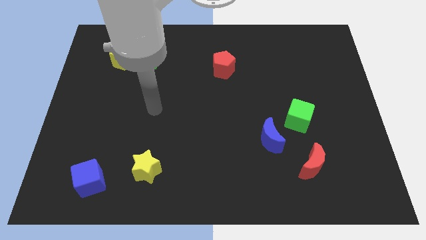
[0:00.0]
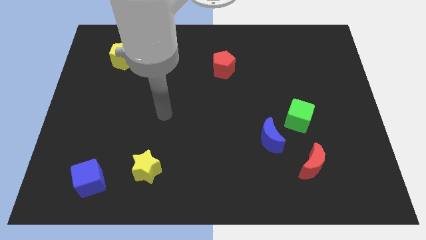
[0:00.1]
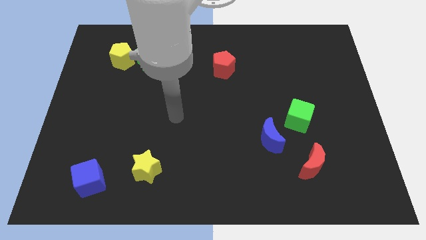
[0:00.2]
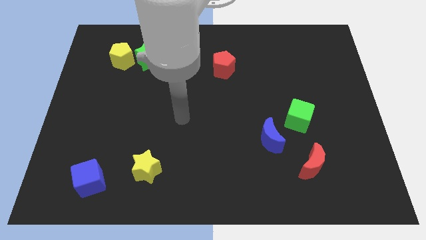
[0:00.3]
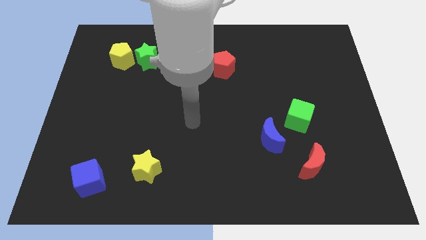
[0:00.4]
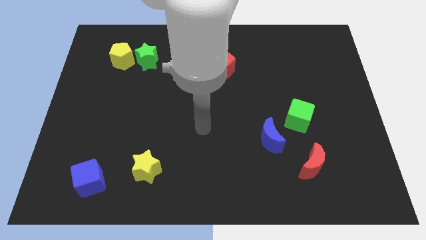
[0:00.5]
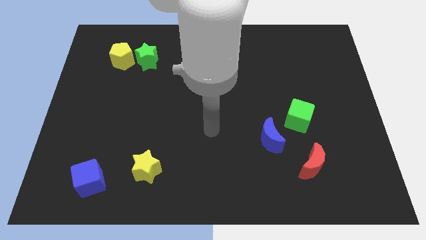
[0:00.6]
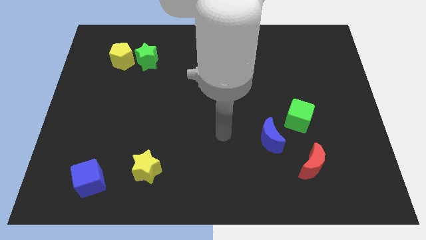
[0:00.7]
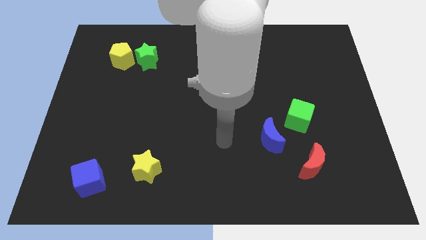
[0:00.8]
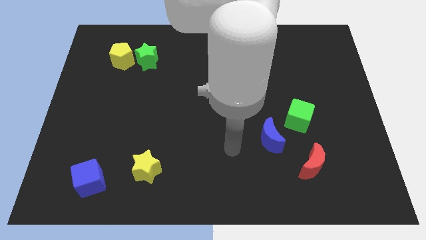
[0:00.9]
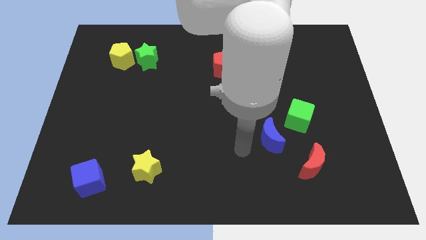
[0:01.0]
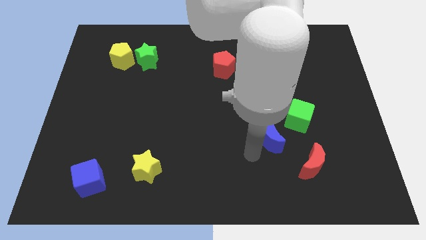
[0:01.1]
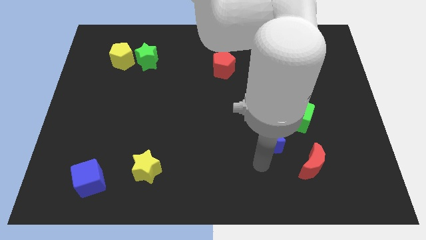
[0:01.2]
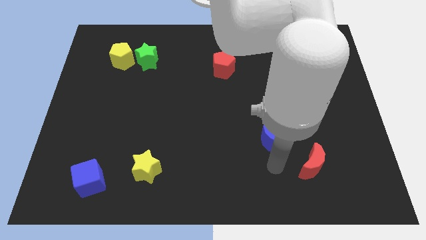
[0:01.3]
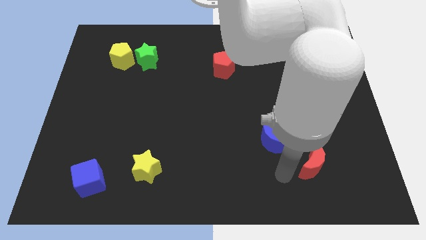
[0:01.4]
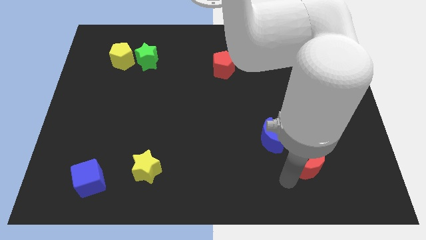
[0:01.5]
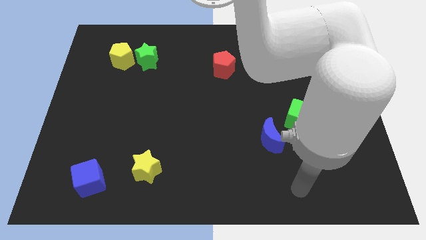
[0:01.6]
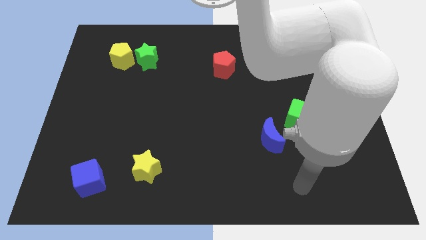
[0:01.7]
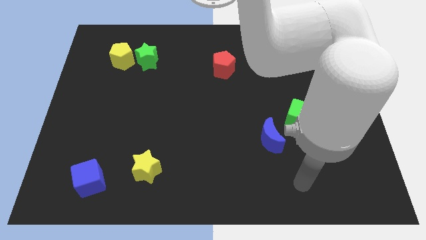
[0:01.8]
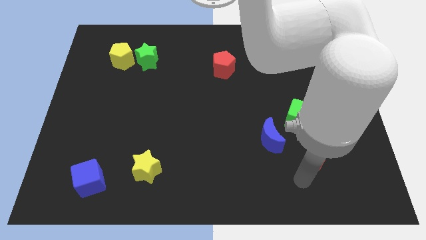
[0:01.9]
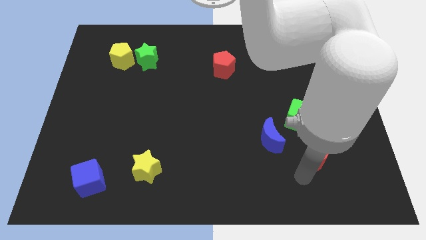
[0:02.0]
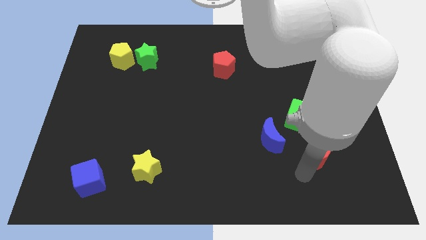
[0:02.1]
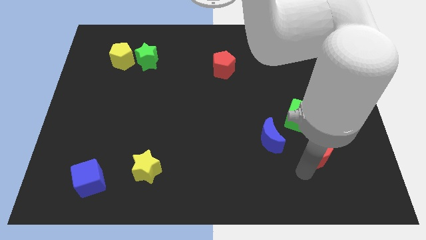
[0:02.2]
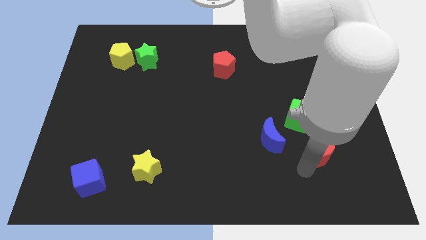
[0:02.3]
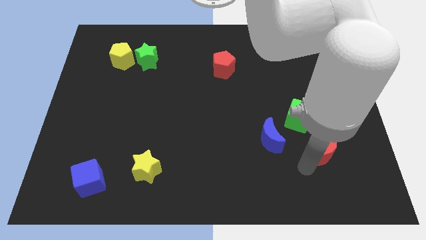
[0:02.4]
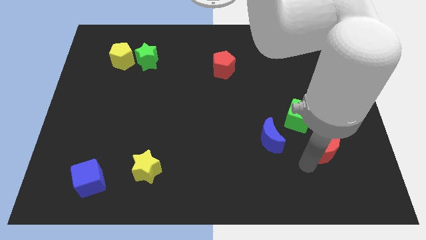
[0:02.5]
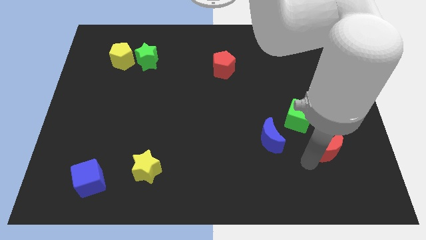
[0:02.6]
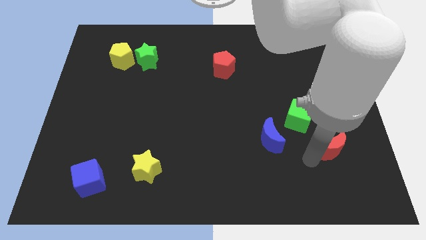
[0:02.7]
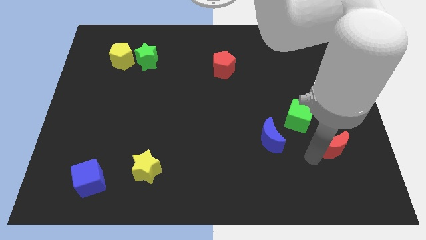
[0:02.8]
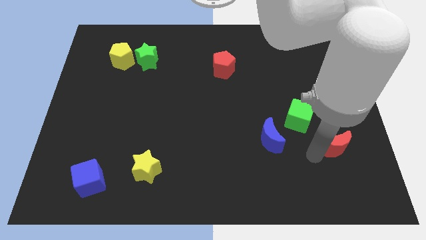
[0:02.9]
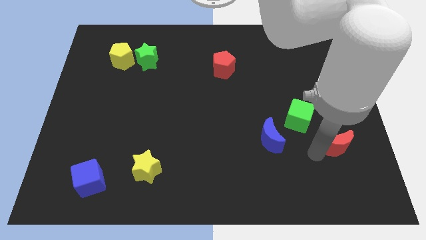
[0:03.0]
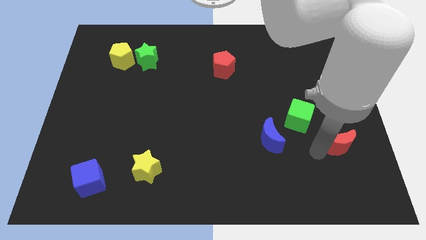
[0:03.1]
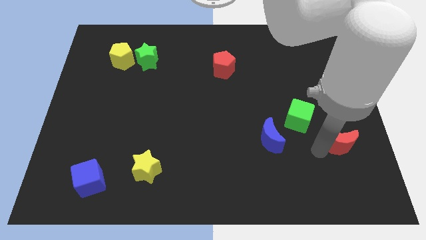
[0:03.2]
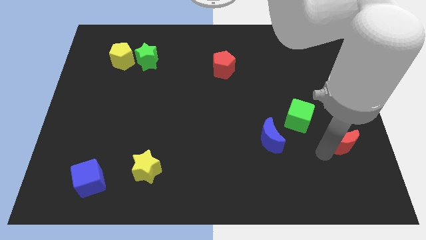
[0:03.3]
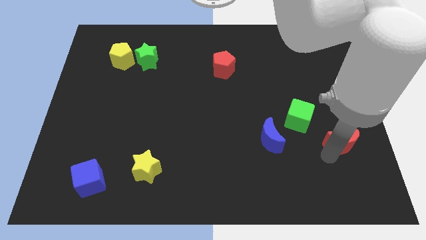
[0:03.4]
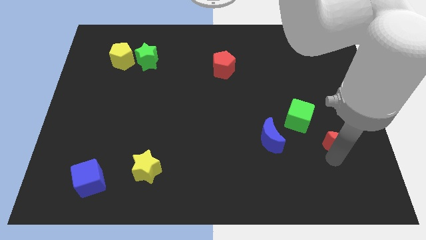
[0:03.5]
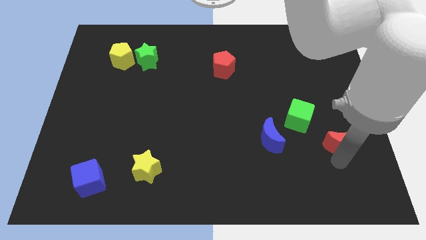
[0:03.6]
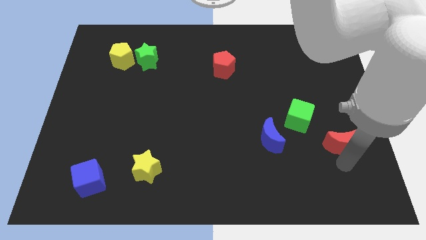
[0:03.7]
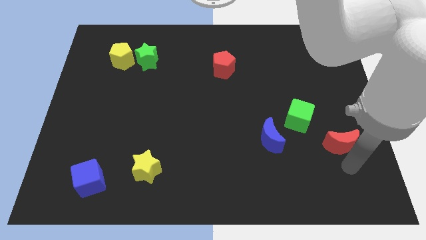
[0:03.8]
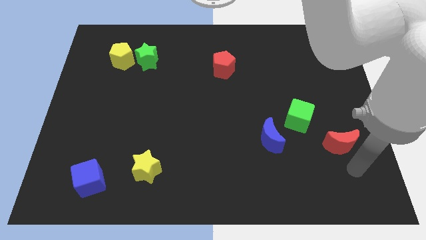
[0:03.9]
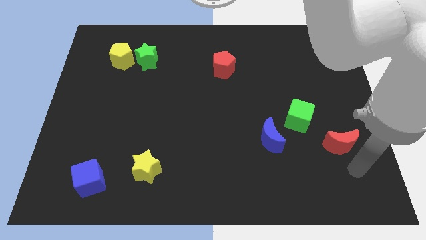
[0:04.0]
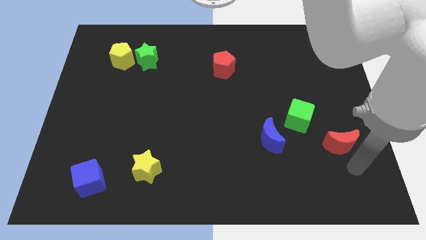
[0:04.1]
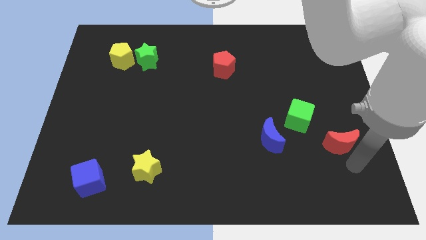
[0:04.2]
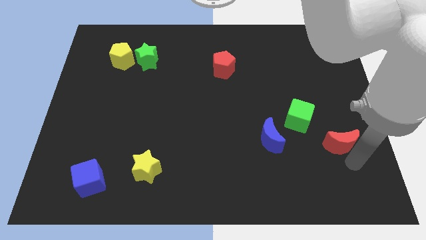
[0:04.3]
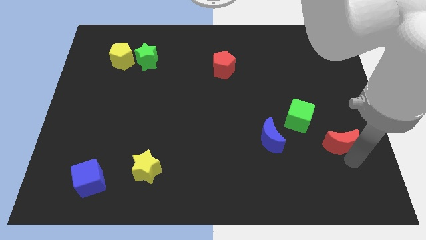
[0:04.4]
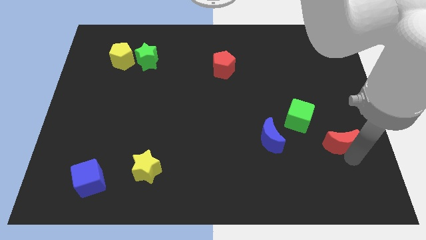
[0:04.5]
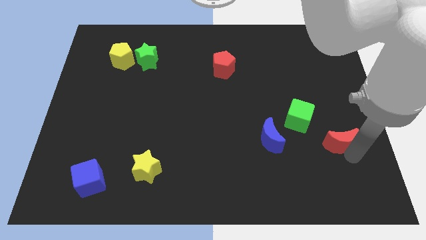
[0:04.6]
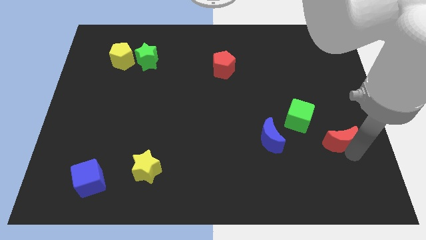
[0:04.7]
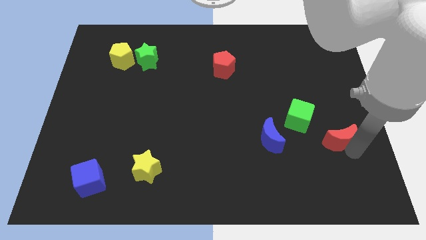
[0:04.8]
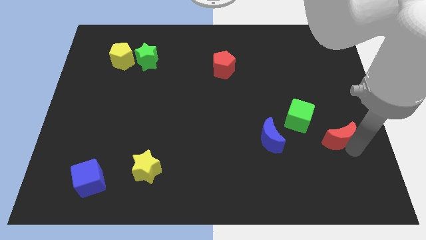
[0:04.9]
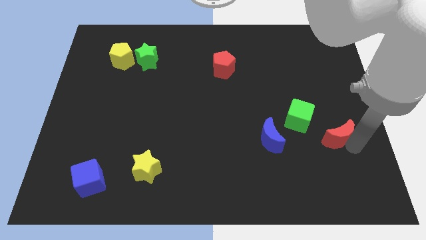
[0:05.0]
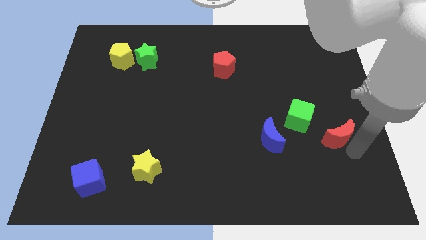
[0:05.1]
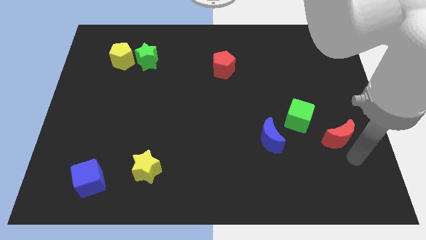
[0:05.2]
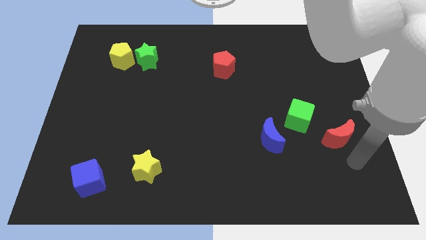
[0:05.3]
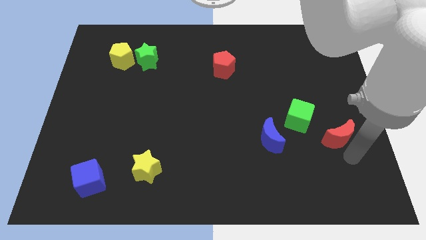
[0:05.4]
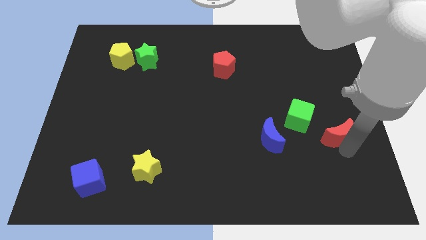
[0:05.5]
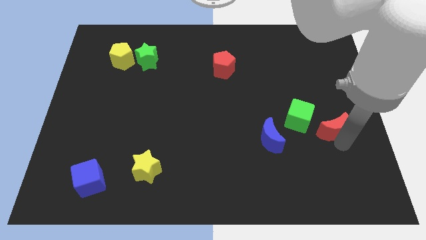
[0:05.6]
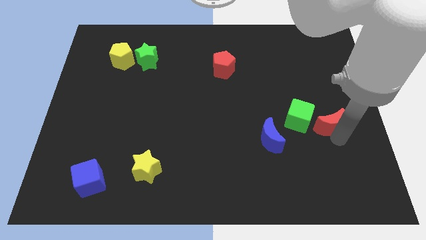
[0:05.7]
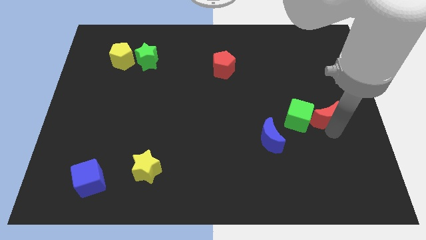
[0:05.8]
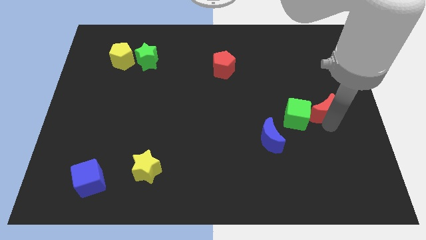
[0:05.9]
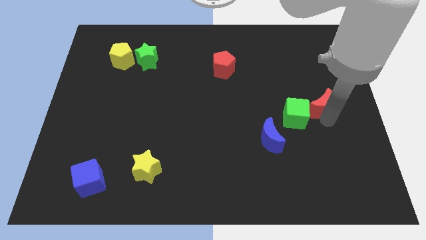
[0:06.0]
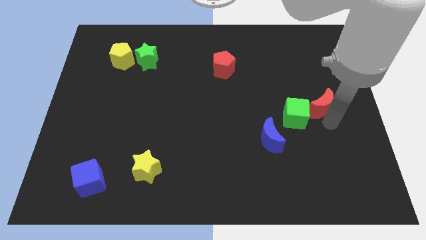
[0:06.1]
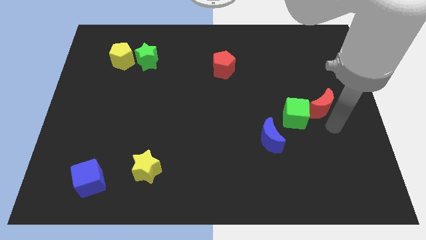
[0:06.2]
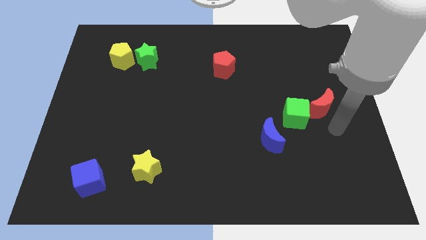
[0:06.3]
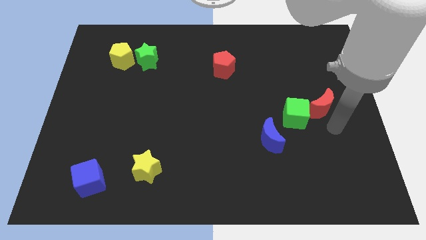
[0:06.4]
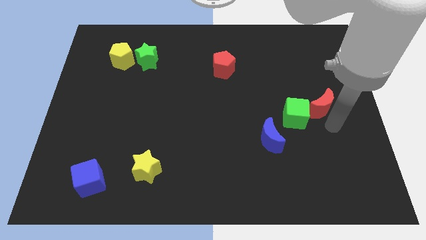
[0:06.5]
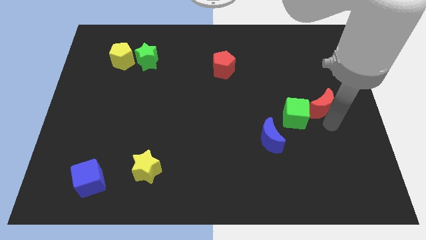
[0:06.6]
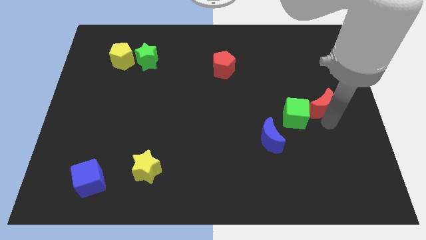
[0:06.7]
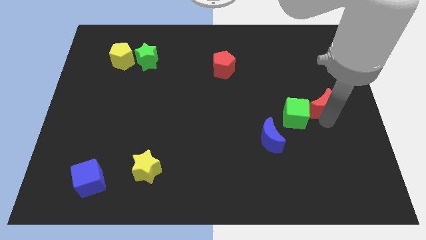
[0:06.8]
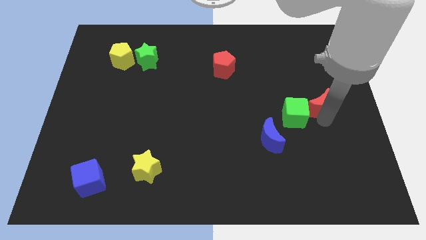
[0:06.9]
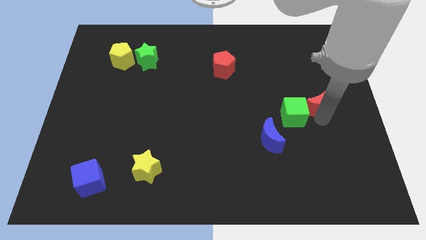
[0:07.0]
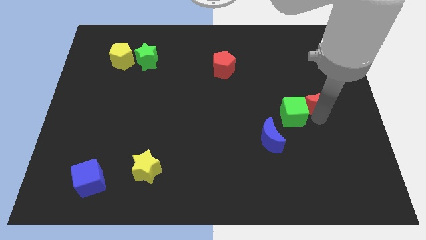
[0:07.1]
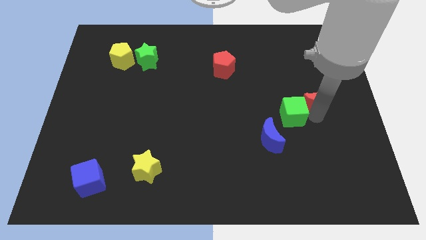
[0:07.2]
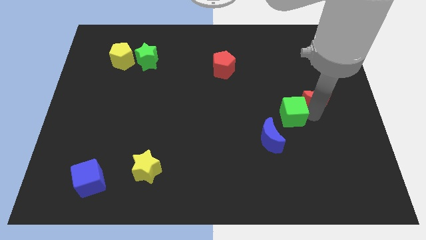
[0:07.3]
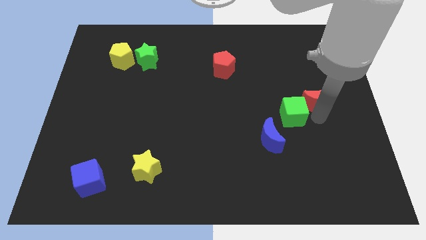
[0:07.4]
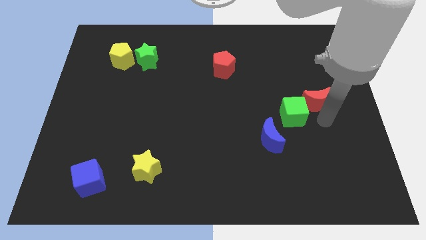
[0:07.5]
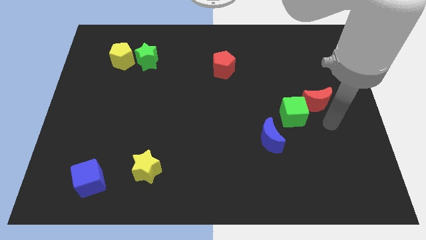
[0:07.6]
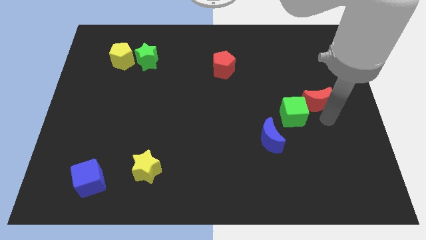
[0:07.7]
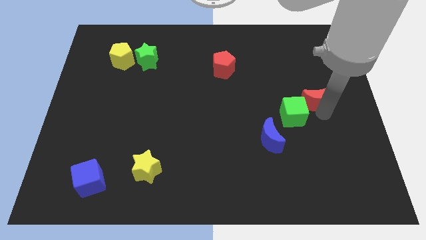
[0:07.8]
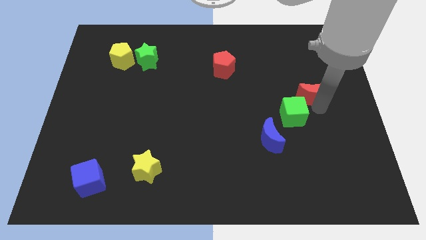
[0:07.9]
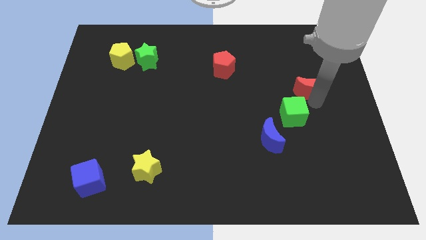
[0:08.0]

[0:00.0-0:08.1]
move the red moon up

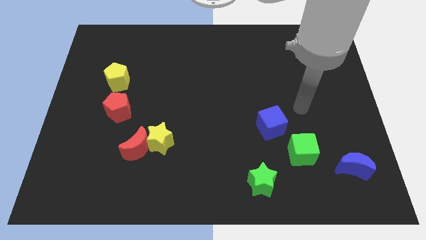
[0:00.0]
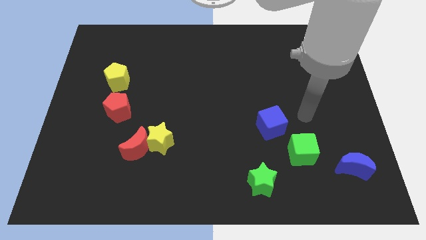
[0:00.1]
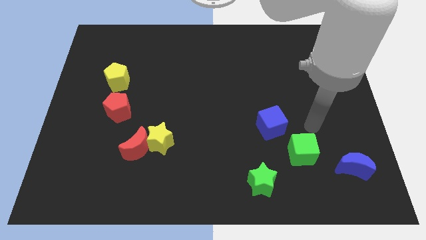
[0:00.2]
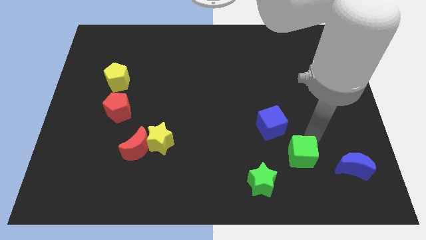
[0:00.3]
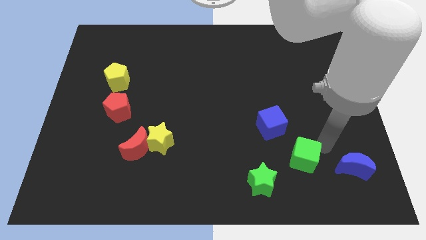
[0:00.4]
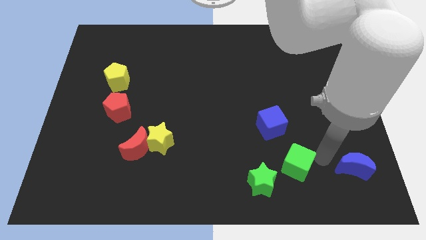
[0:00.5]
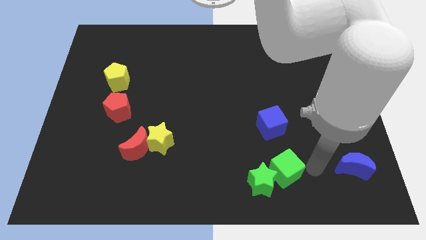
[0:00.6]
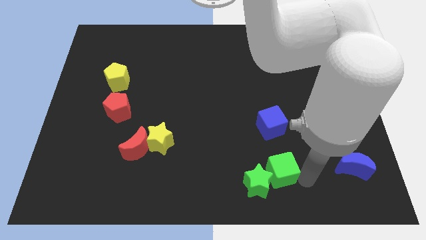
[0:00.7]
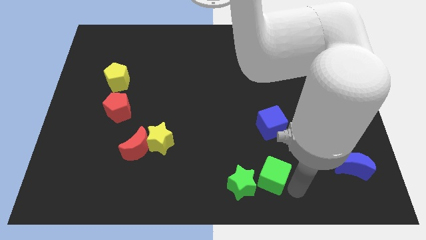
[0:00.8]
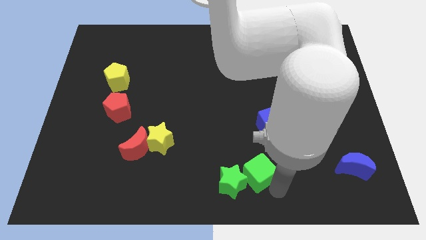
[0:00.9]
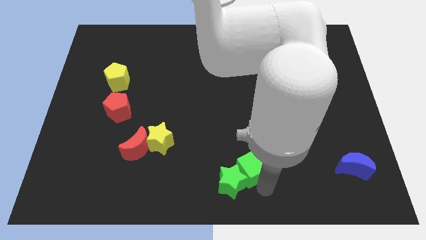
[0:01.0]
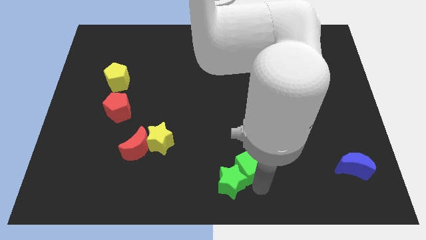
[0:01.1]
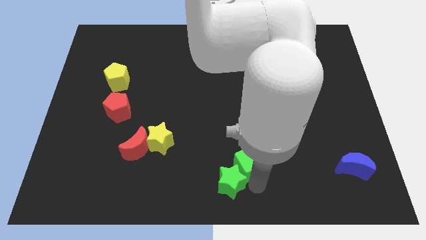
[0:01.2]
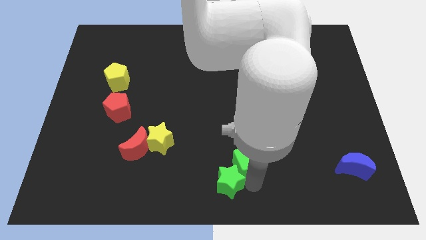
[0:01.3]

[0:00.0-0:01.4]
slightly slide the green star to the left
